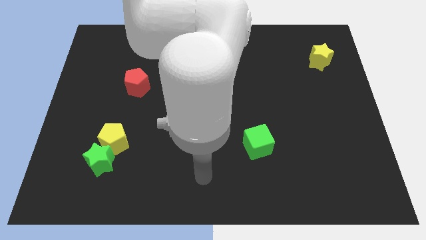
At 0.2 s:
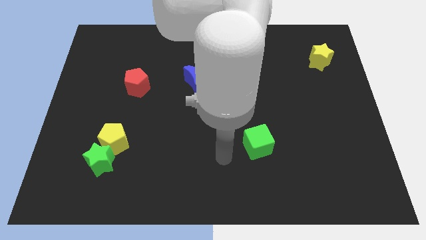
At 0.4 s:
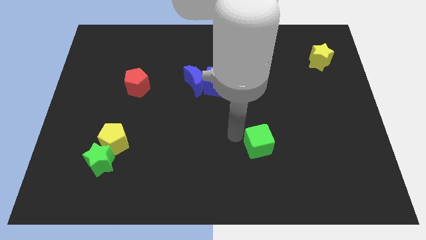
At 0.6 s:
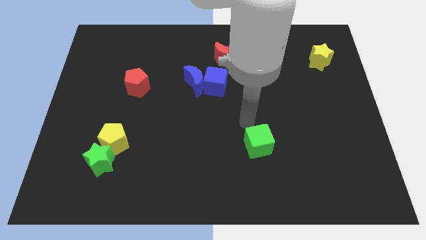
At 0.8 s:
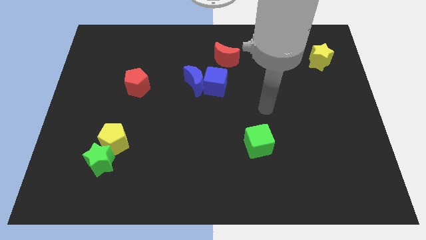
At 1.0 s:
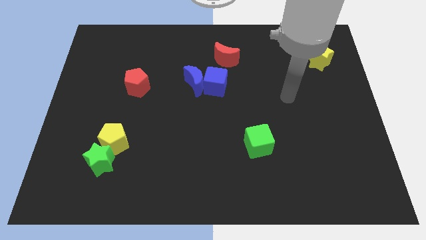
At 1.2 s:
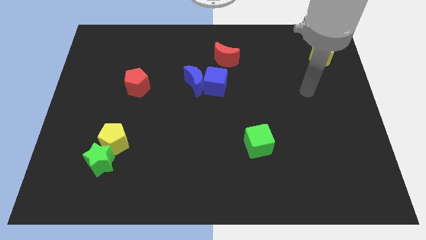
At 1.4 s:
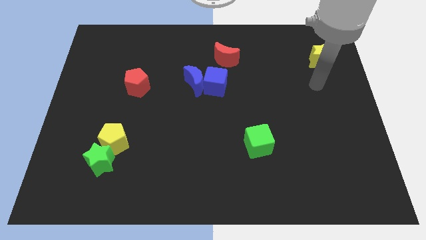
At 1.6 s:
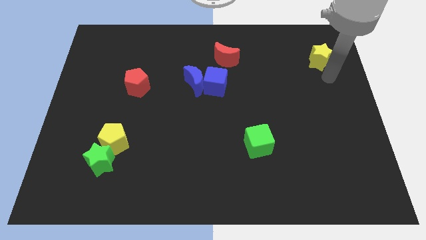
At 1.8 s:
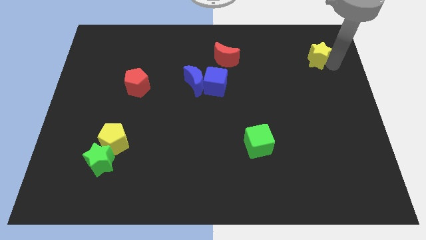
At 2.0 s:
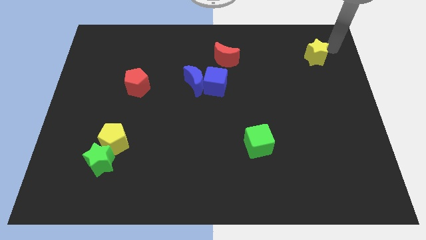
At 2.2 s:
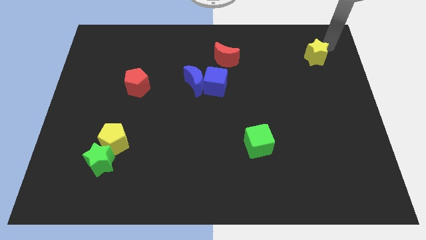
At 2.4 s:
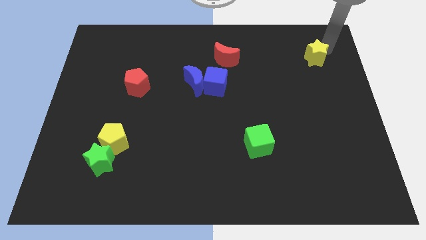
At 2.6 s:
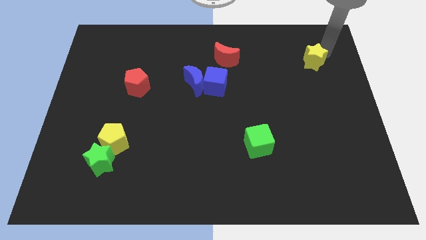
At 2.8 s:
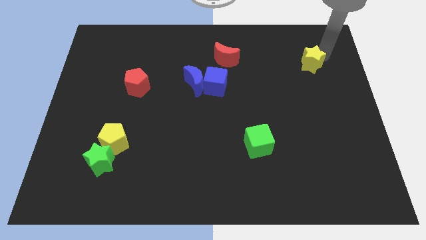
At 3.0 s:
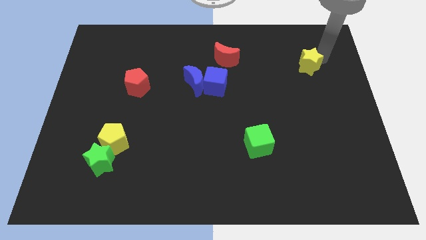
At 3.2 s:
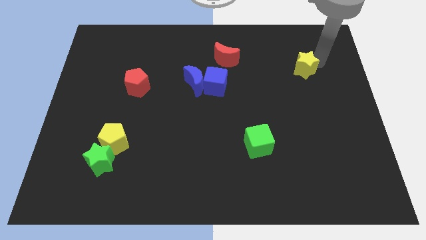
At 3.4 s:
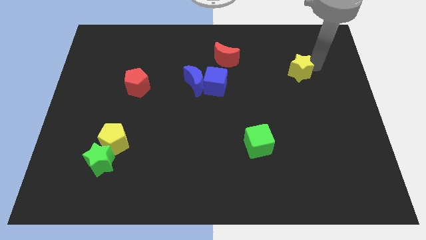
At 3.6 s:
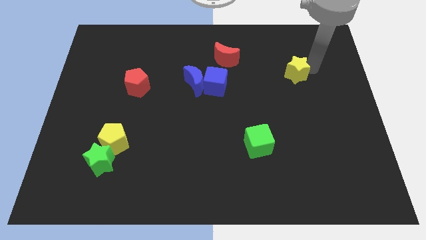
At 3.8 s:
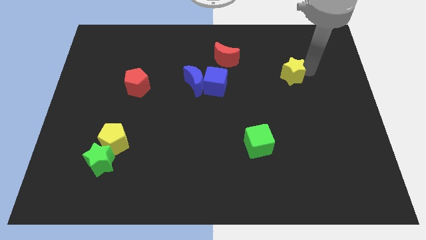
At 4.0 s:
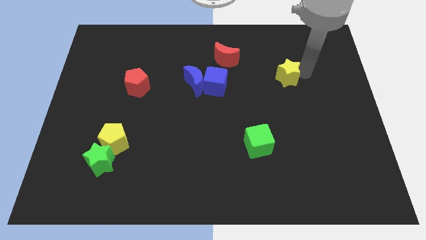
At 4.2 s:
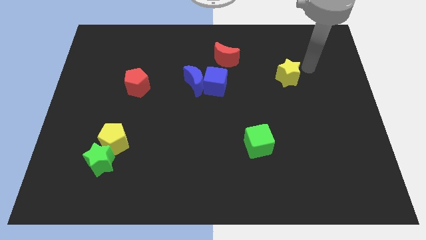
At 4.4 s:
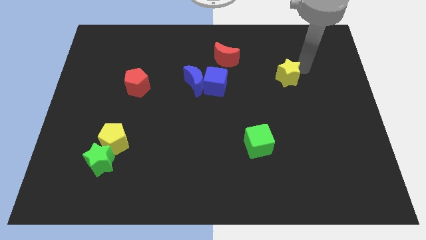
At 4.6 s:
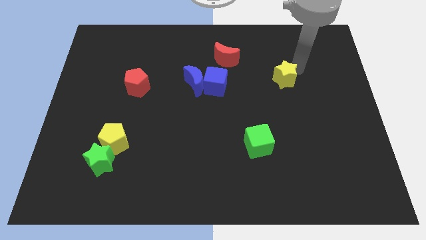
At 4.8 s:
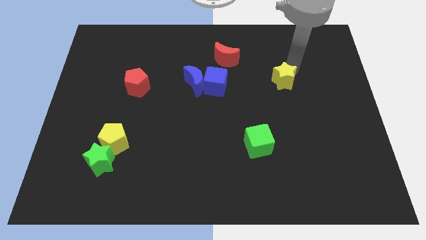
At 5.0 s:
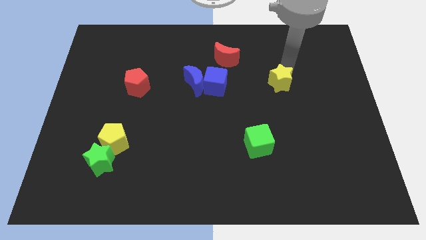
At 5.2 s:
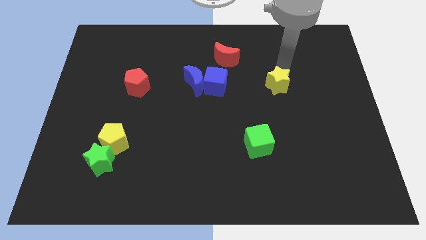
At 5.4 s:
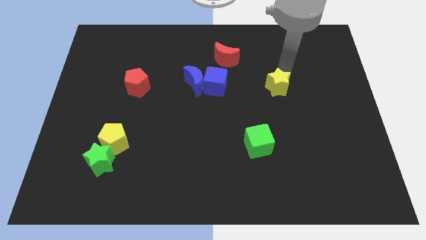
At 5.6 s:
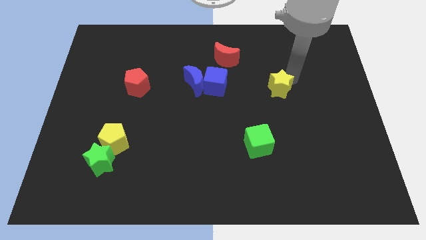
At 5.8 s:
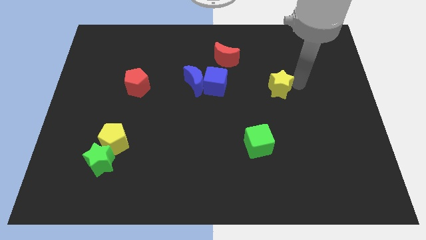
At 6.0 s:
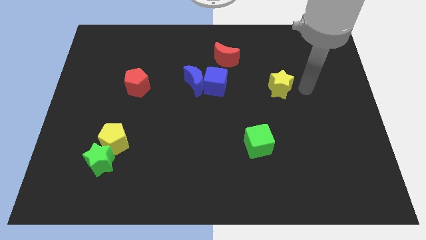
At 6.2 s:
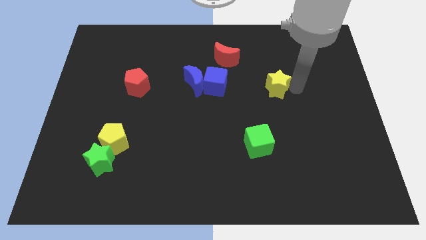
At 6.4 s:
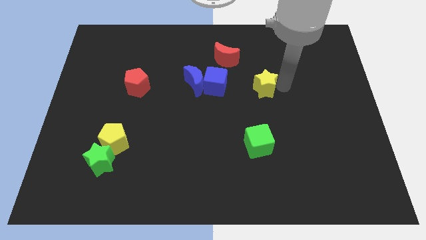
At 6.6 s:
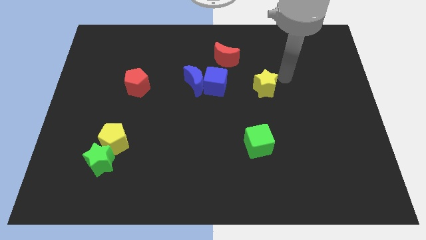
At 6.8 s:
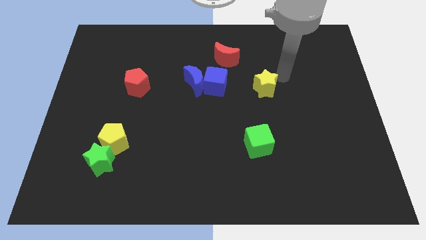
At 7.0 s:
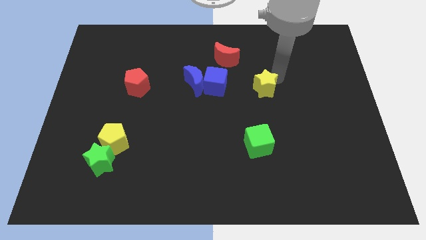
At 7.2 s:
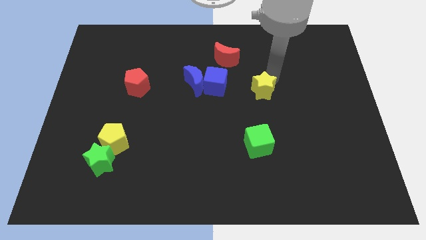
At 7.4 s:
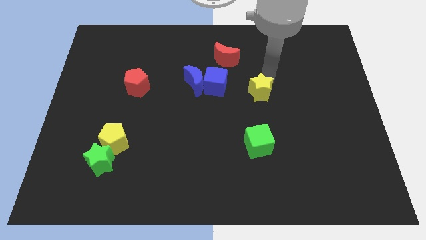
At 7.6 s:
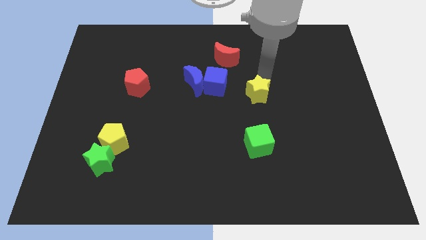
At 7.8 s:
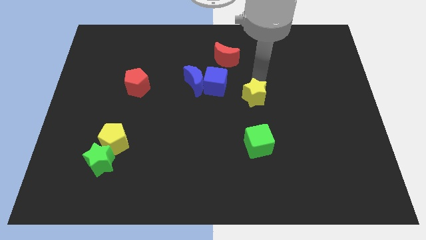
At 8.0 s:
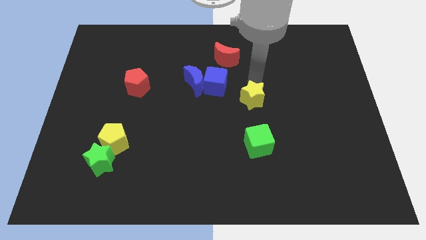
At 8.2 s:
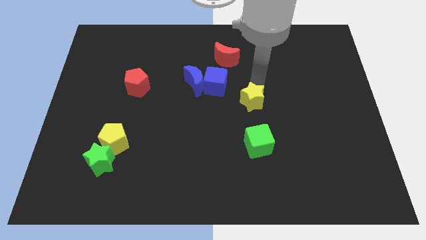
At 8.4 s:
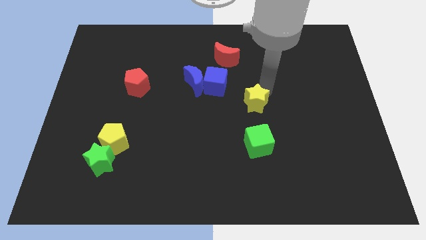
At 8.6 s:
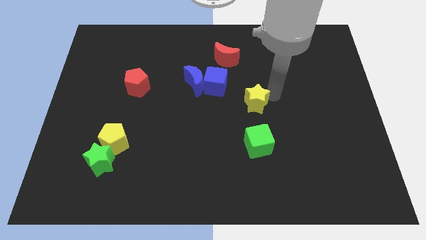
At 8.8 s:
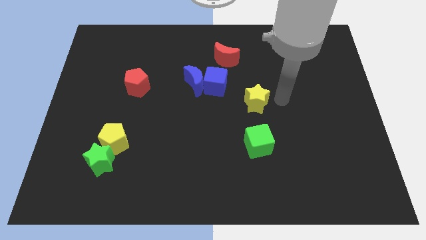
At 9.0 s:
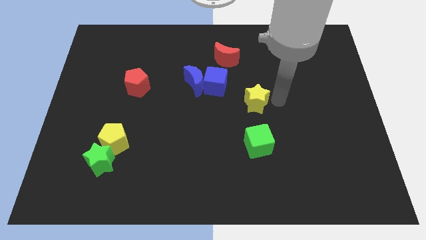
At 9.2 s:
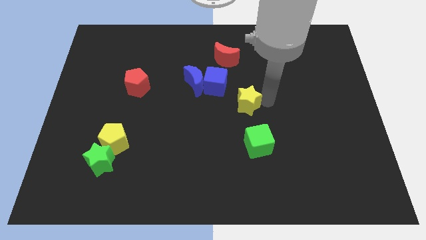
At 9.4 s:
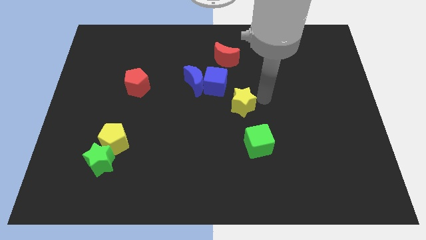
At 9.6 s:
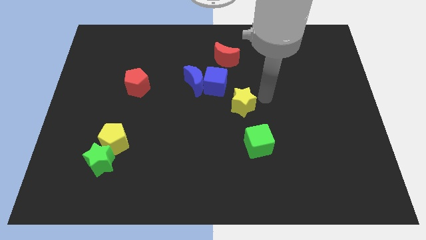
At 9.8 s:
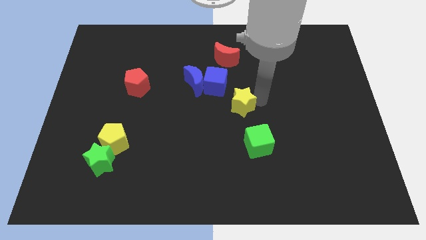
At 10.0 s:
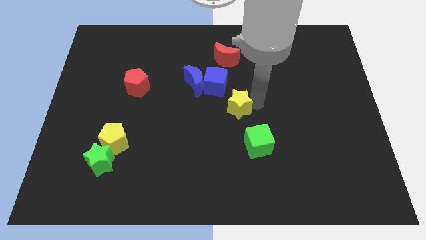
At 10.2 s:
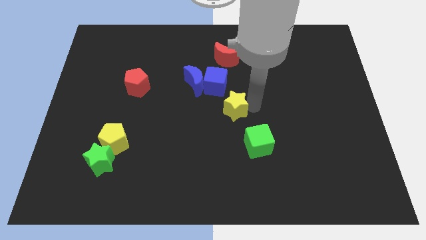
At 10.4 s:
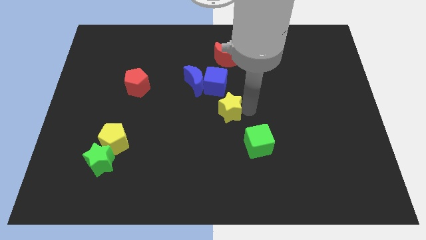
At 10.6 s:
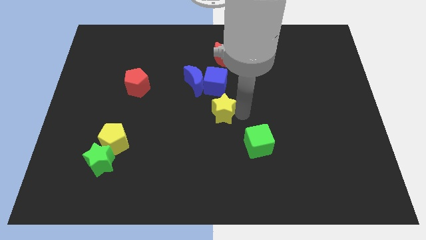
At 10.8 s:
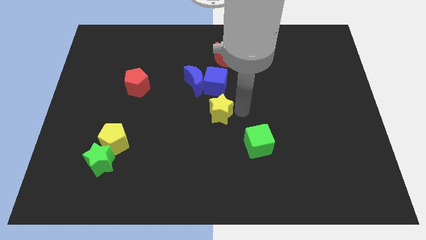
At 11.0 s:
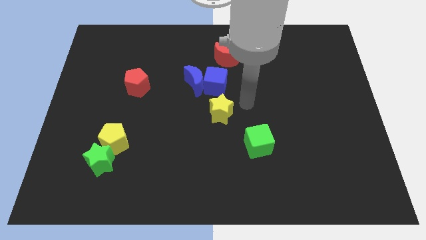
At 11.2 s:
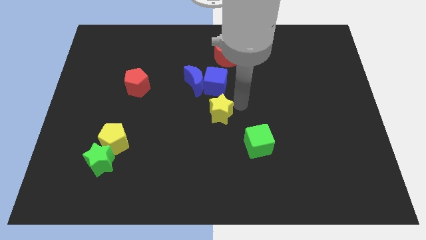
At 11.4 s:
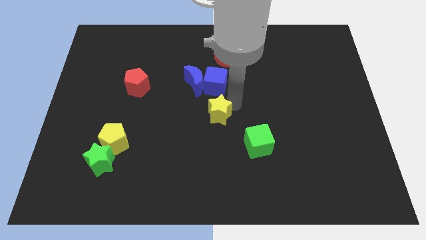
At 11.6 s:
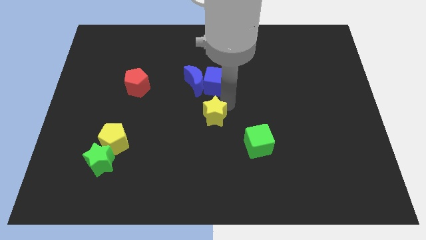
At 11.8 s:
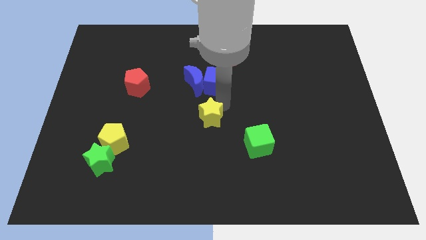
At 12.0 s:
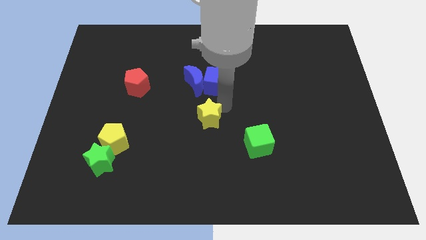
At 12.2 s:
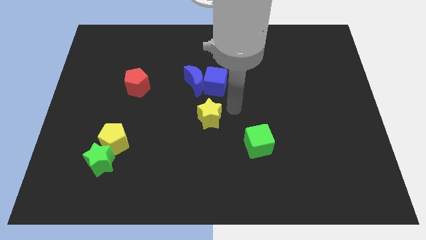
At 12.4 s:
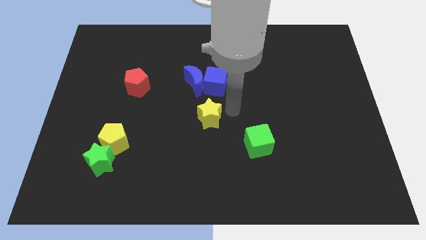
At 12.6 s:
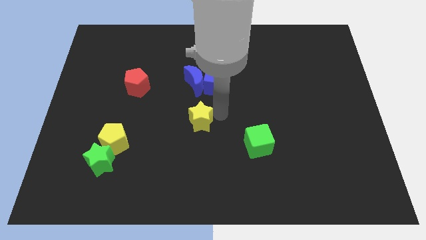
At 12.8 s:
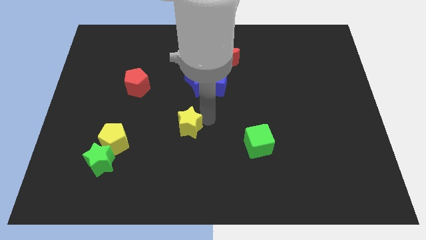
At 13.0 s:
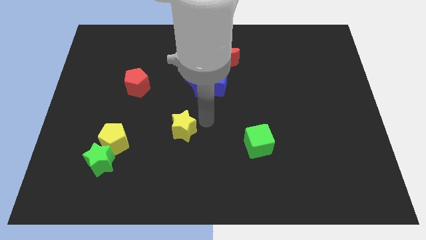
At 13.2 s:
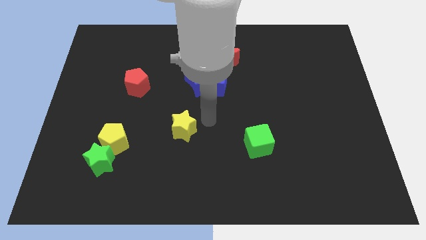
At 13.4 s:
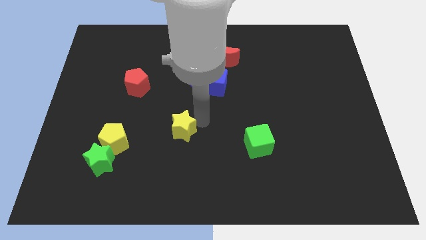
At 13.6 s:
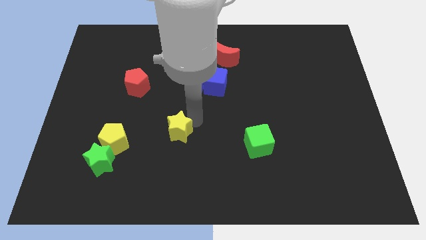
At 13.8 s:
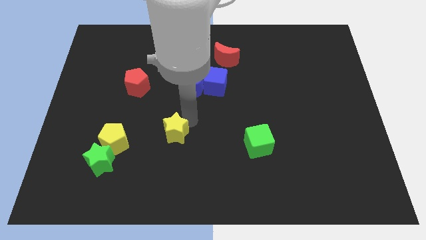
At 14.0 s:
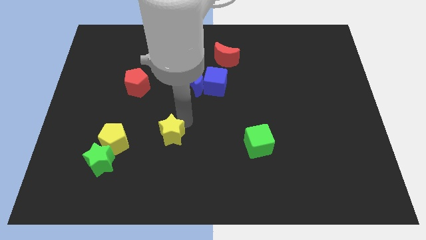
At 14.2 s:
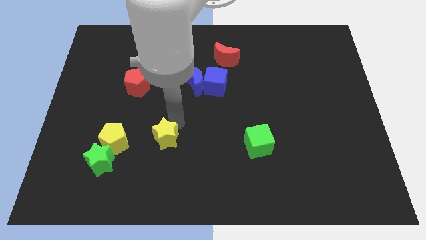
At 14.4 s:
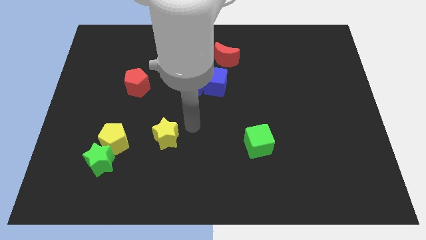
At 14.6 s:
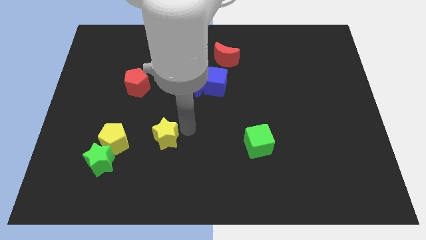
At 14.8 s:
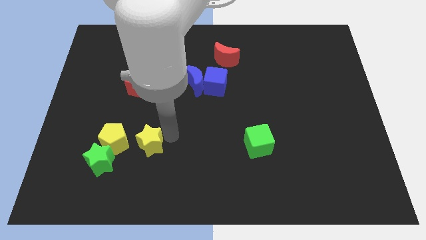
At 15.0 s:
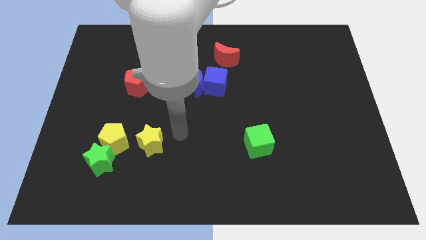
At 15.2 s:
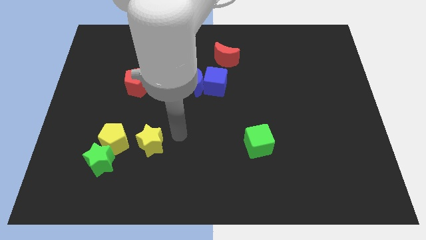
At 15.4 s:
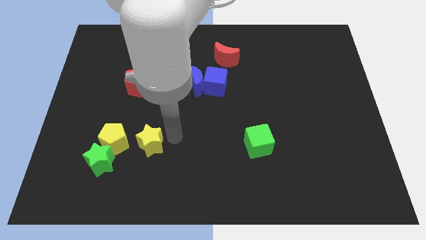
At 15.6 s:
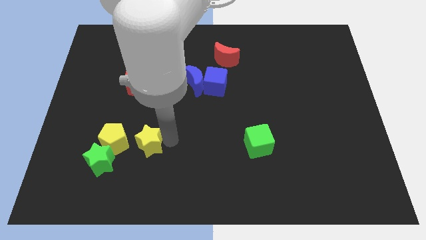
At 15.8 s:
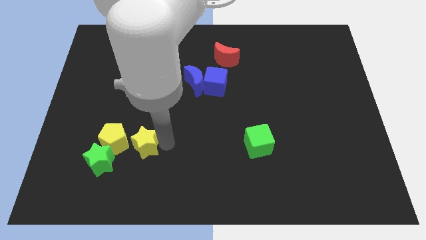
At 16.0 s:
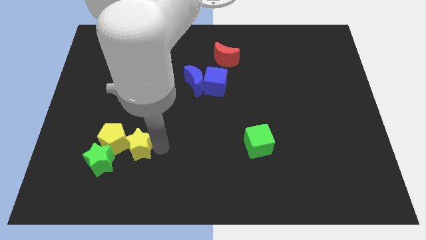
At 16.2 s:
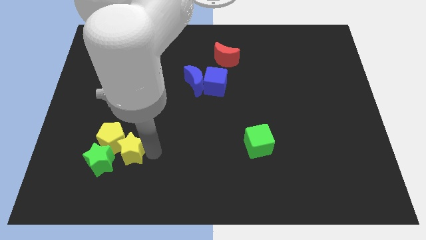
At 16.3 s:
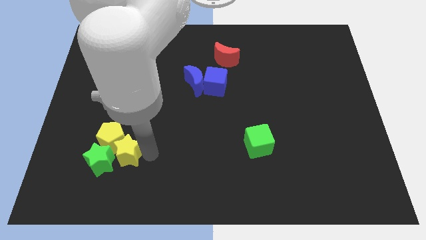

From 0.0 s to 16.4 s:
put the yellow star towards the green star
